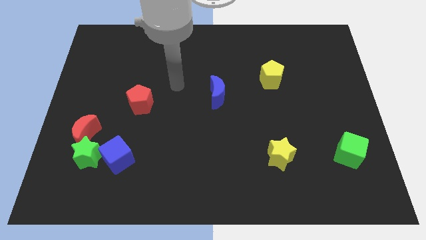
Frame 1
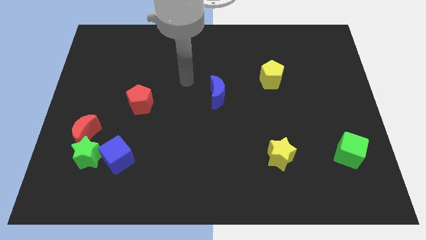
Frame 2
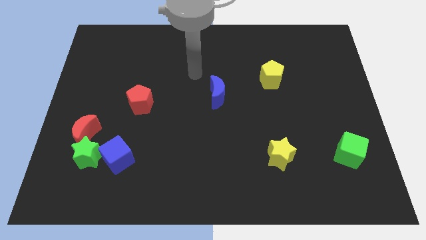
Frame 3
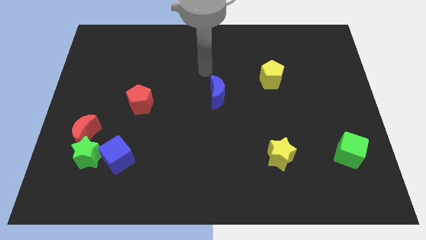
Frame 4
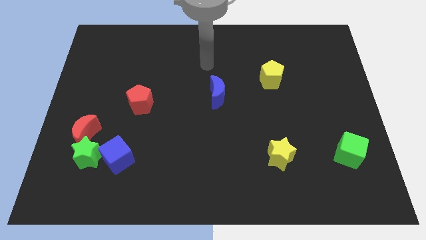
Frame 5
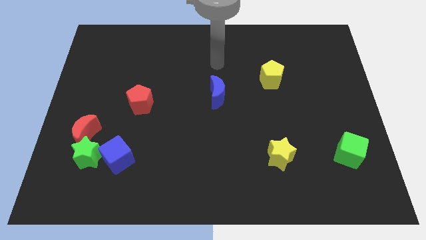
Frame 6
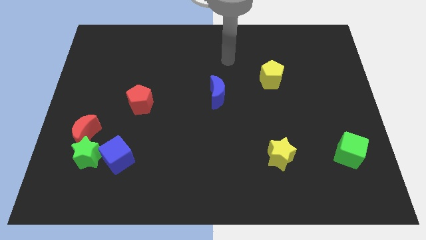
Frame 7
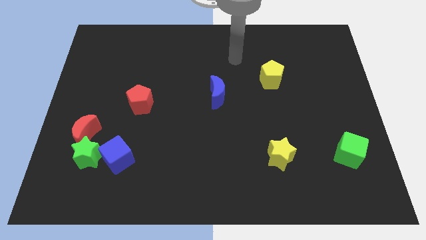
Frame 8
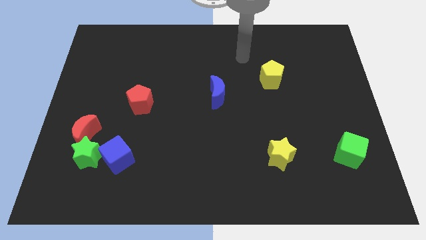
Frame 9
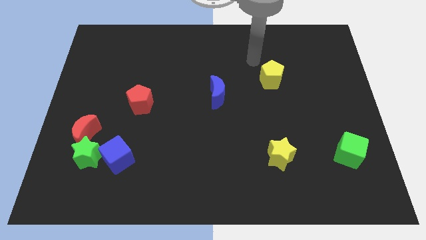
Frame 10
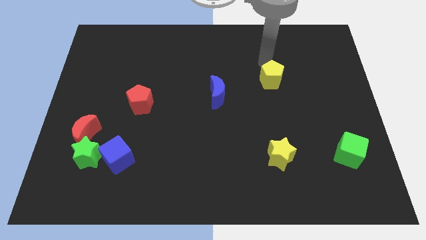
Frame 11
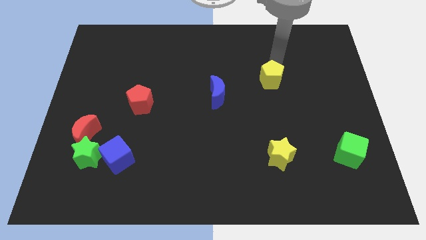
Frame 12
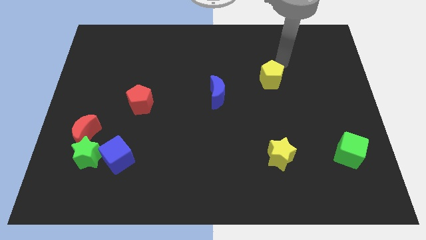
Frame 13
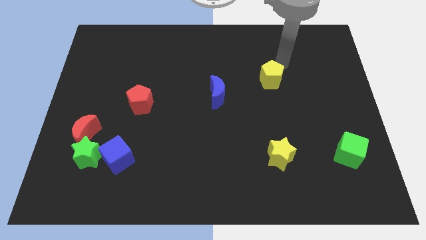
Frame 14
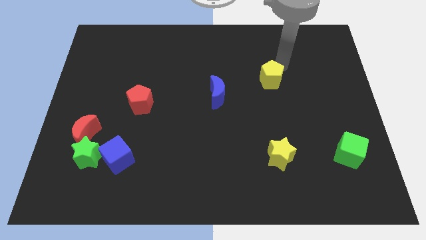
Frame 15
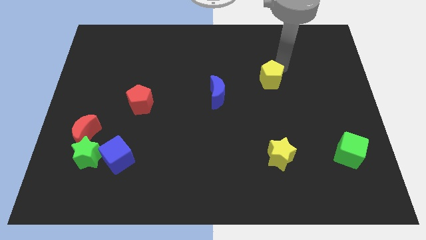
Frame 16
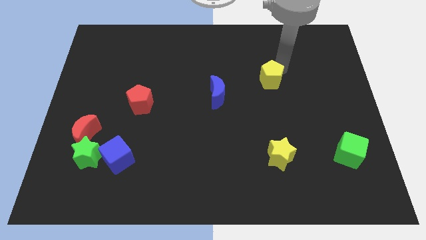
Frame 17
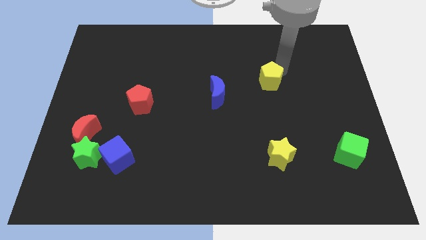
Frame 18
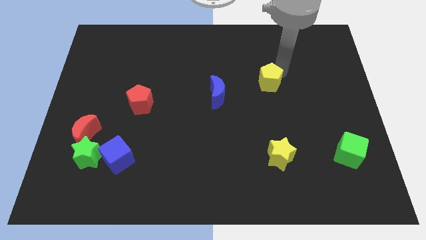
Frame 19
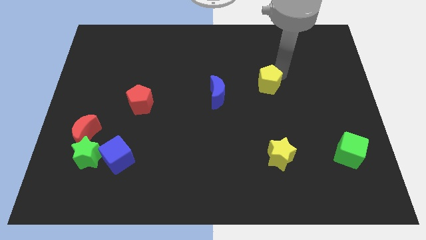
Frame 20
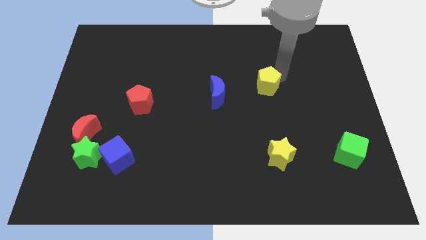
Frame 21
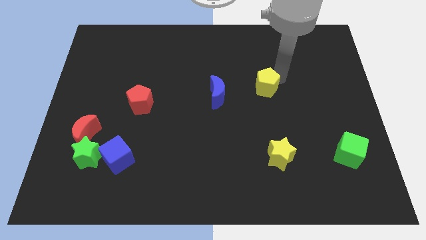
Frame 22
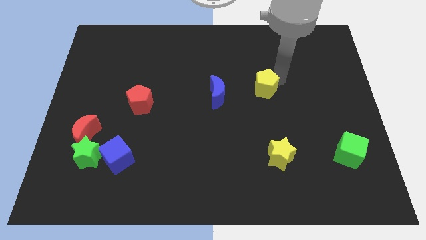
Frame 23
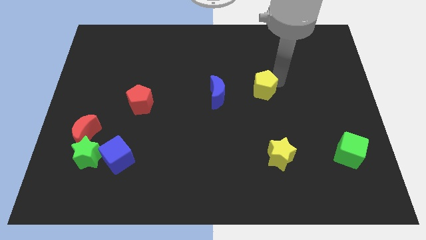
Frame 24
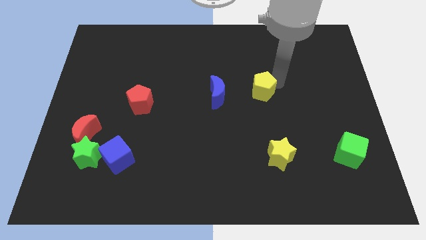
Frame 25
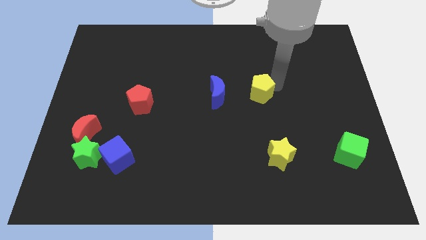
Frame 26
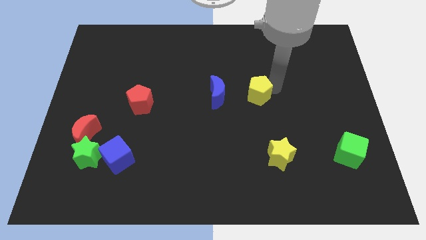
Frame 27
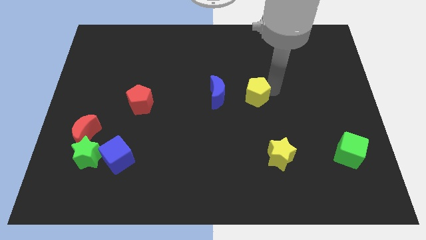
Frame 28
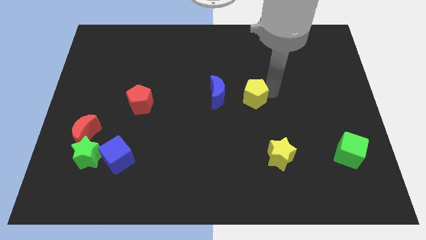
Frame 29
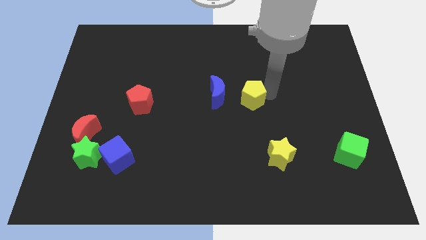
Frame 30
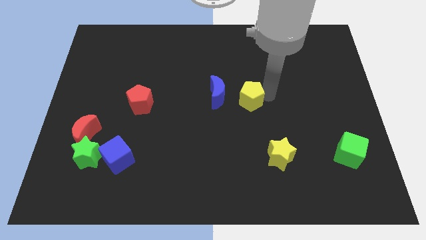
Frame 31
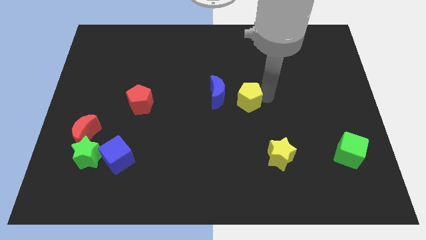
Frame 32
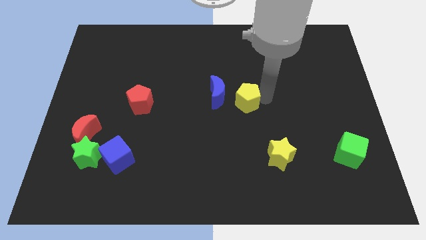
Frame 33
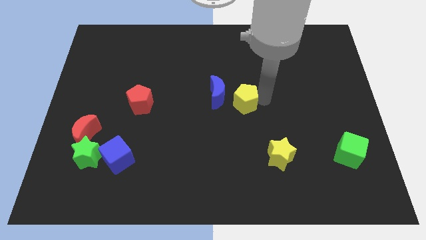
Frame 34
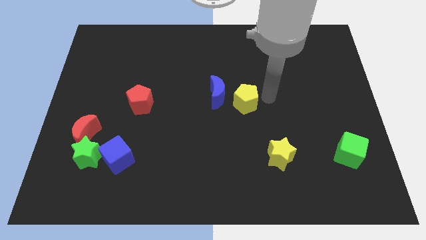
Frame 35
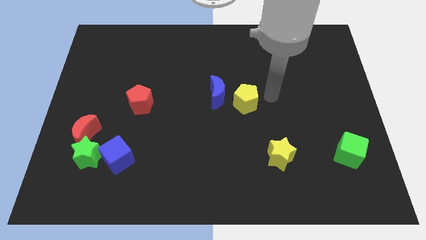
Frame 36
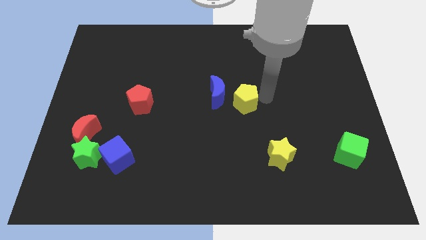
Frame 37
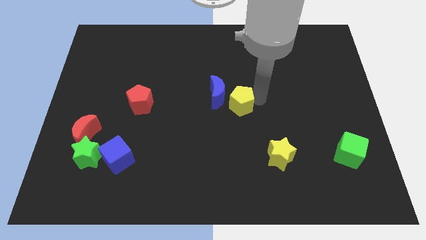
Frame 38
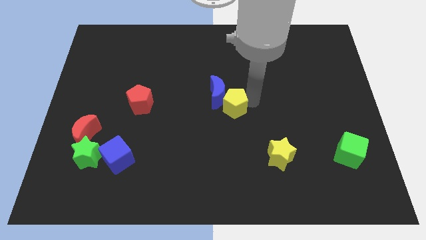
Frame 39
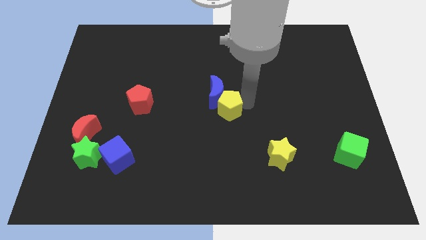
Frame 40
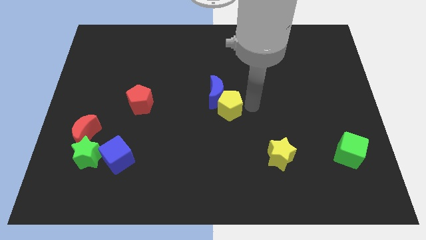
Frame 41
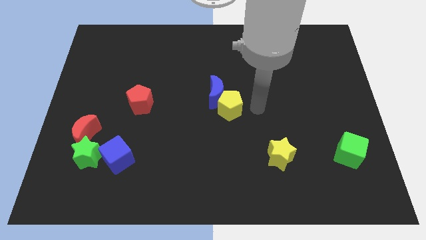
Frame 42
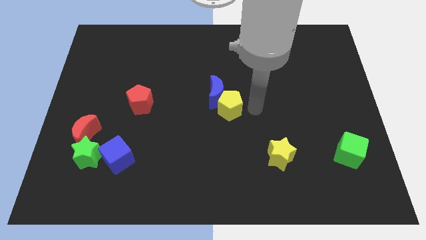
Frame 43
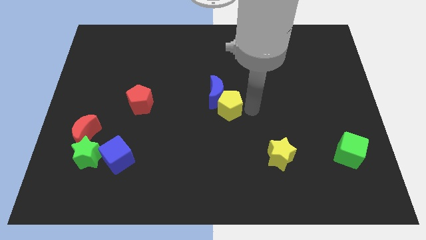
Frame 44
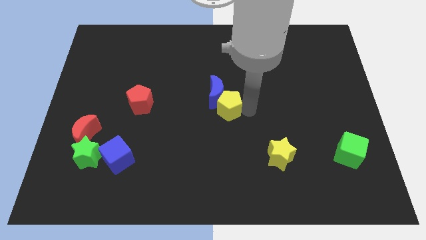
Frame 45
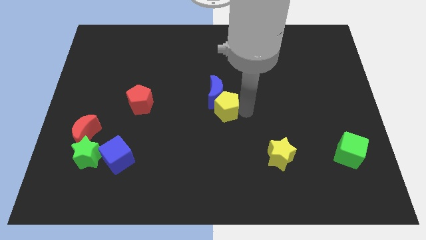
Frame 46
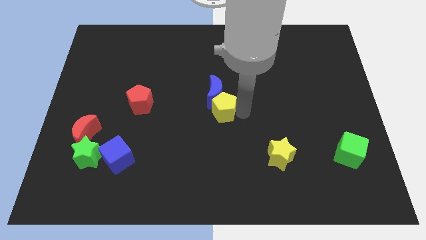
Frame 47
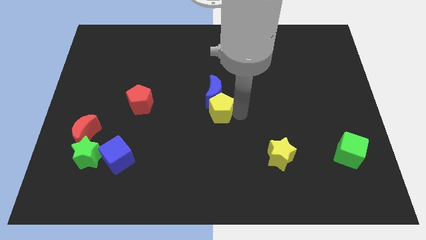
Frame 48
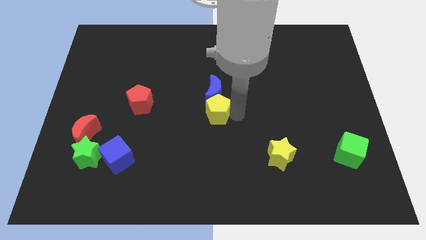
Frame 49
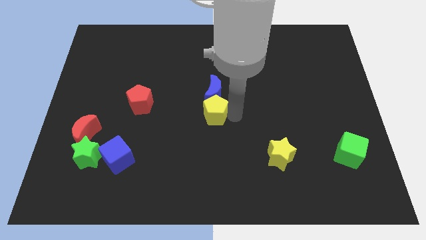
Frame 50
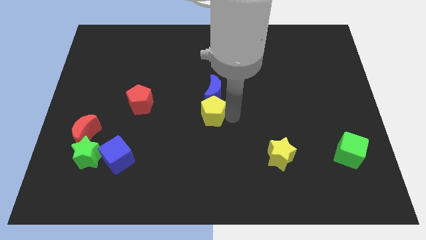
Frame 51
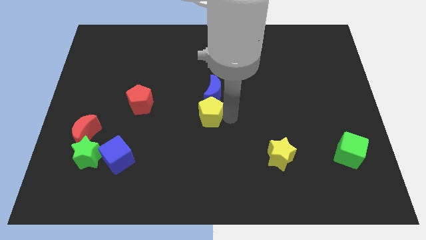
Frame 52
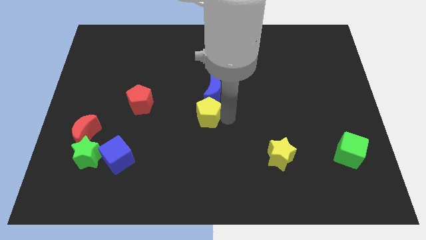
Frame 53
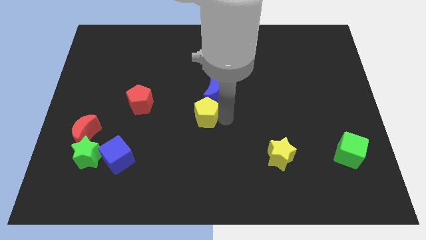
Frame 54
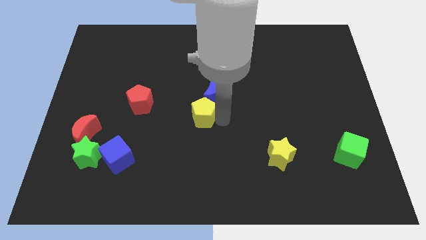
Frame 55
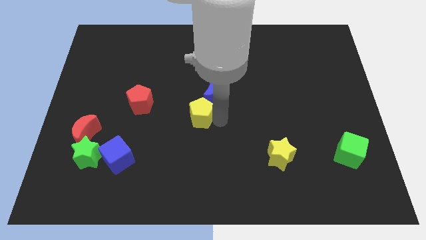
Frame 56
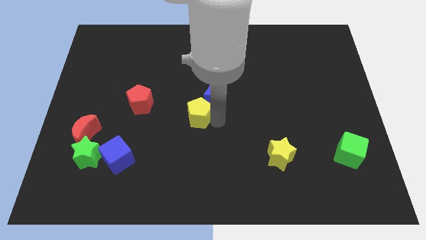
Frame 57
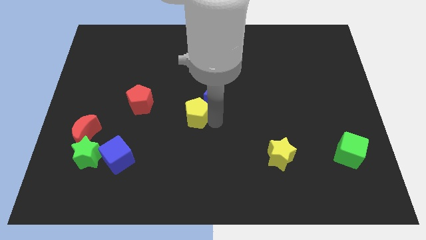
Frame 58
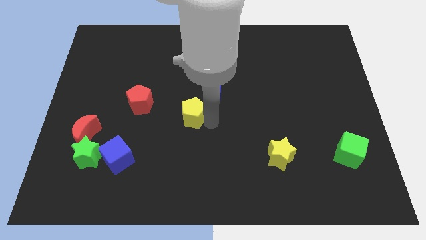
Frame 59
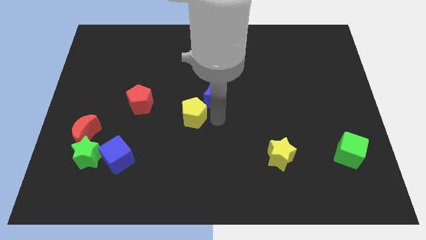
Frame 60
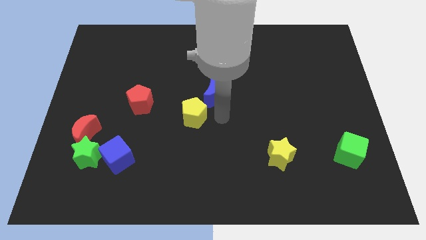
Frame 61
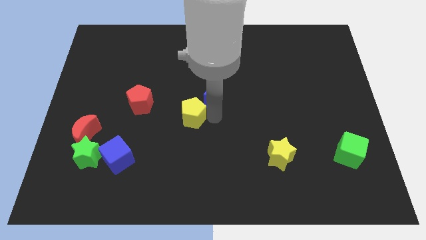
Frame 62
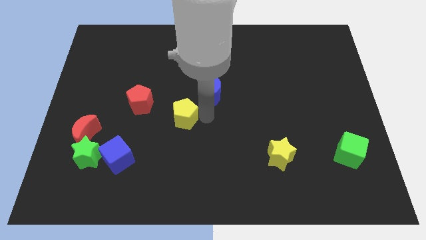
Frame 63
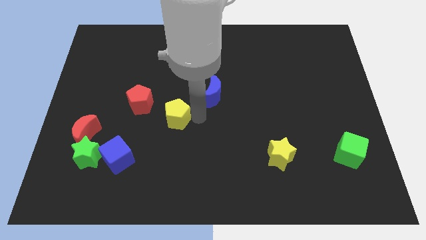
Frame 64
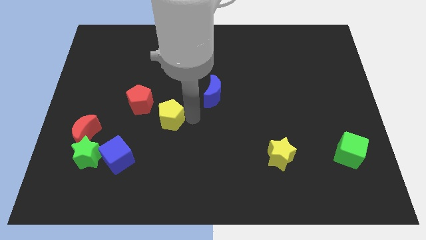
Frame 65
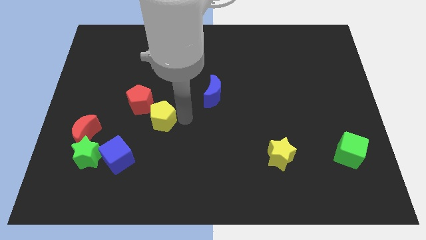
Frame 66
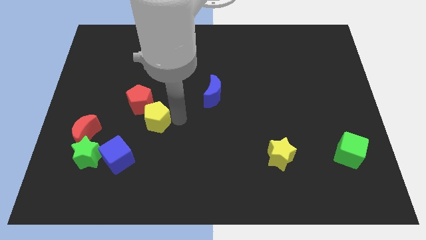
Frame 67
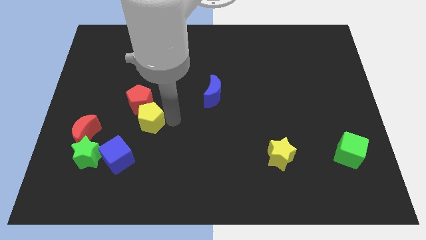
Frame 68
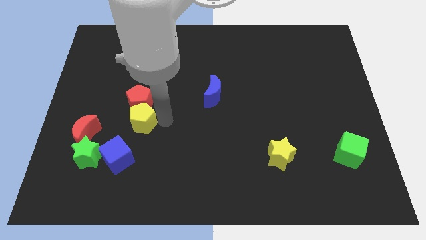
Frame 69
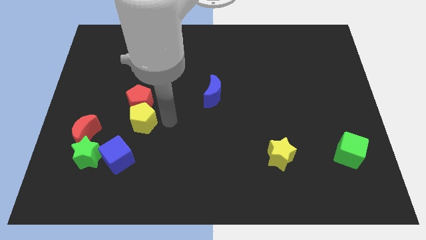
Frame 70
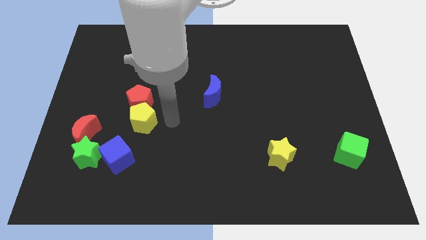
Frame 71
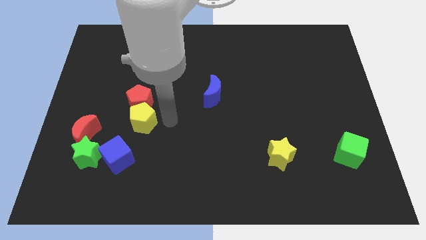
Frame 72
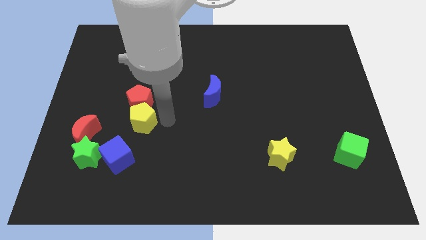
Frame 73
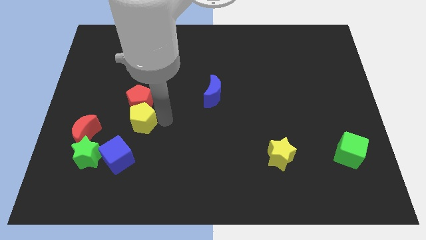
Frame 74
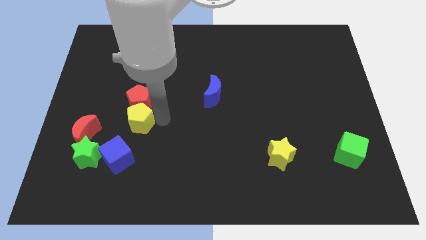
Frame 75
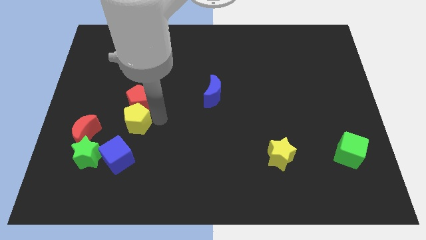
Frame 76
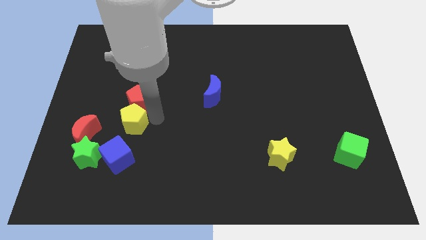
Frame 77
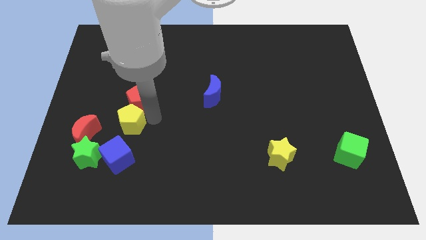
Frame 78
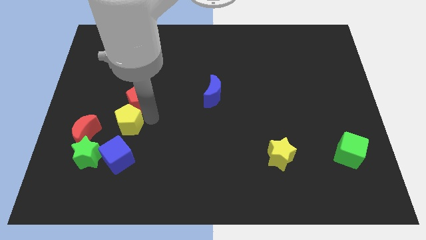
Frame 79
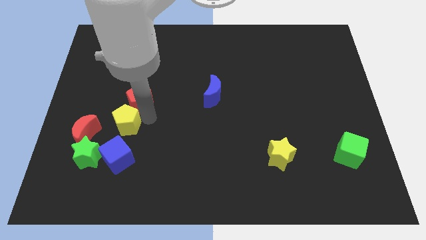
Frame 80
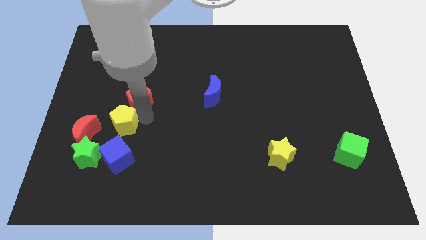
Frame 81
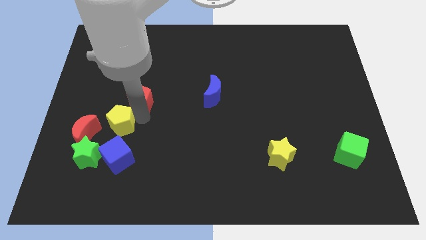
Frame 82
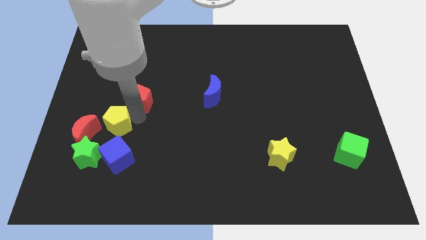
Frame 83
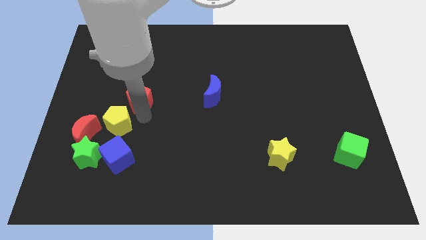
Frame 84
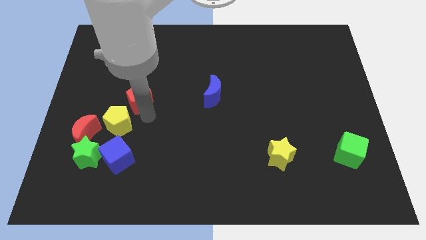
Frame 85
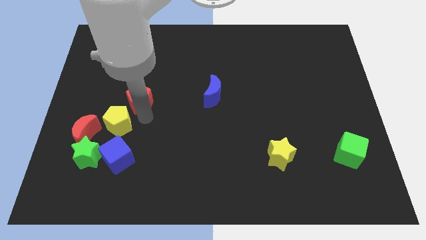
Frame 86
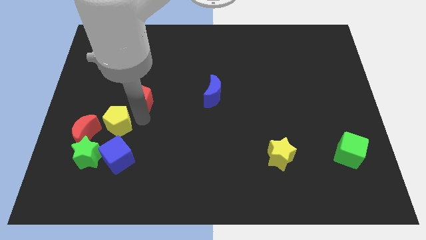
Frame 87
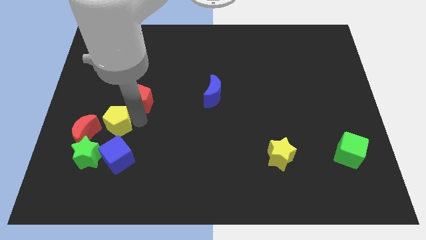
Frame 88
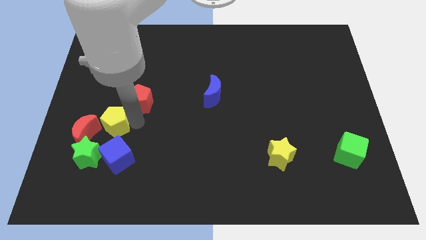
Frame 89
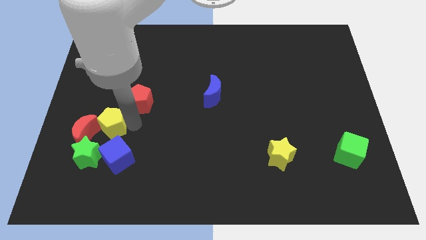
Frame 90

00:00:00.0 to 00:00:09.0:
move the yellow pentagon next to the red moon
